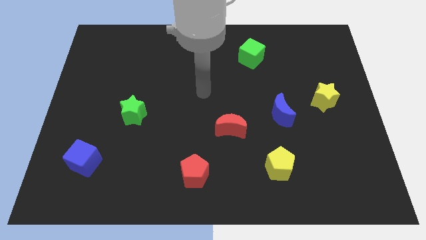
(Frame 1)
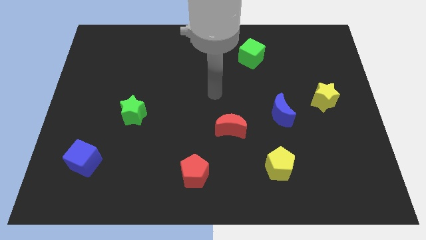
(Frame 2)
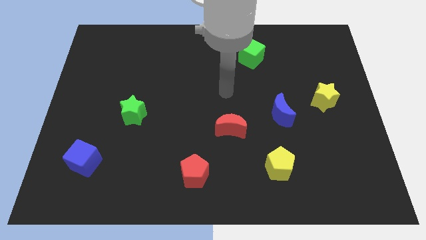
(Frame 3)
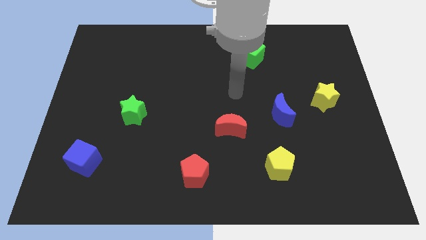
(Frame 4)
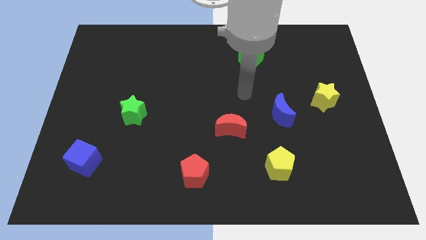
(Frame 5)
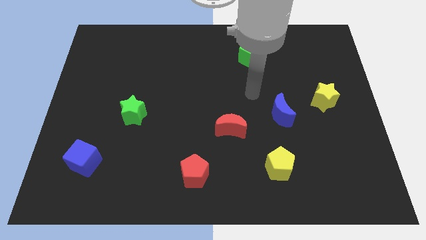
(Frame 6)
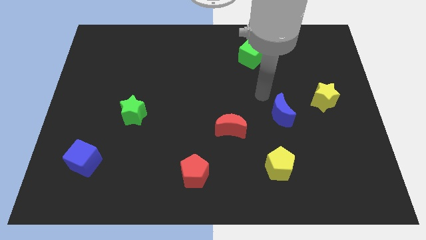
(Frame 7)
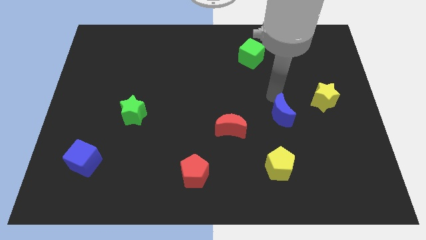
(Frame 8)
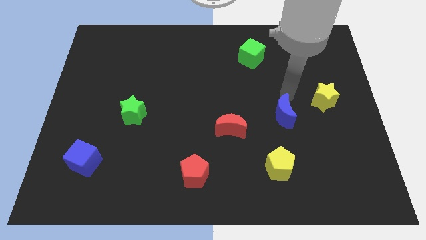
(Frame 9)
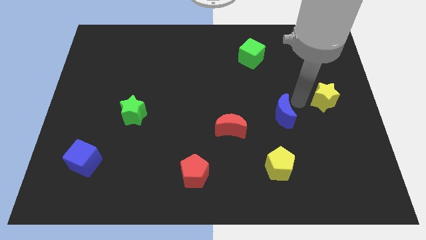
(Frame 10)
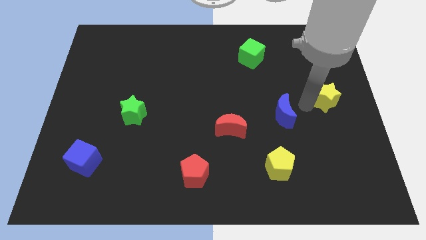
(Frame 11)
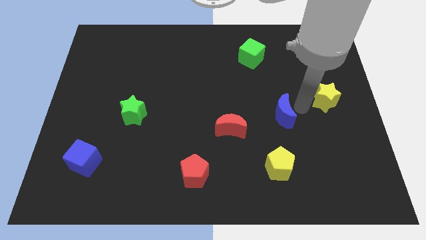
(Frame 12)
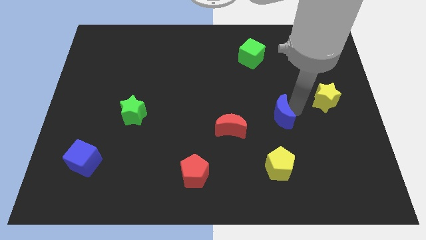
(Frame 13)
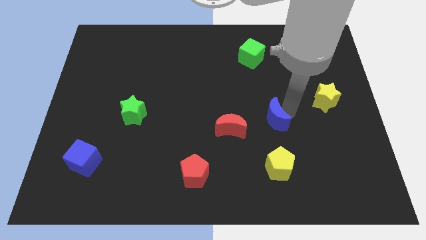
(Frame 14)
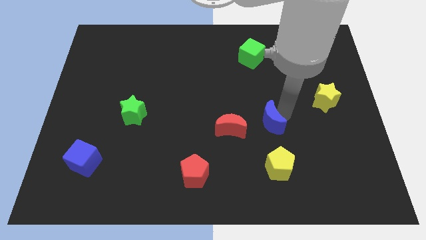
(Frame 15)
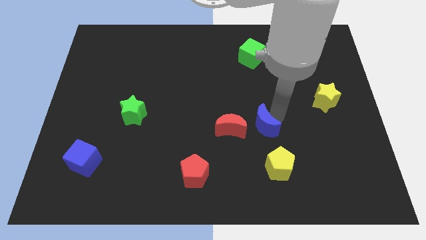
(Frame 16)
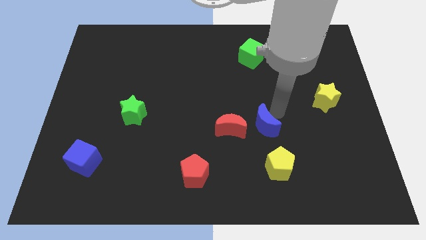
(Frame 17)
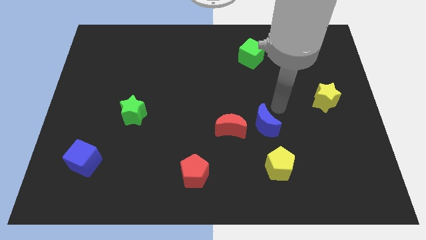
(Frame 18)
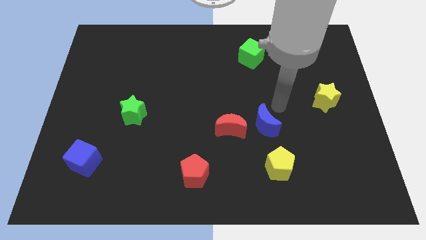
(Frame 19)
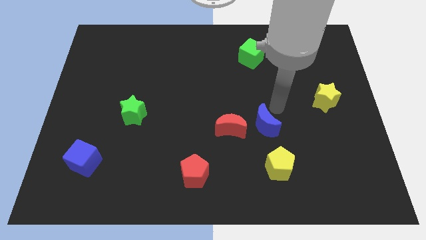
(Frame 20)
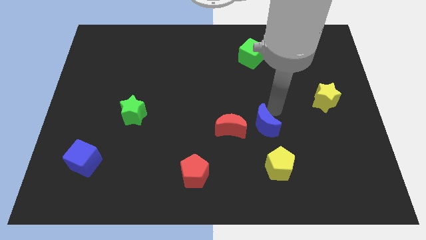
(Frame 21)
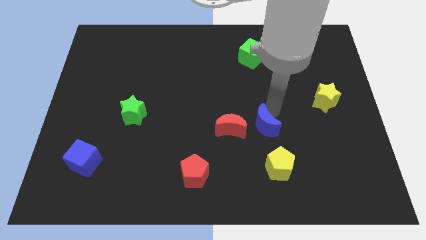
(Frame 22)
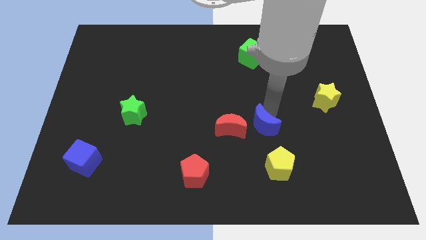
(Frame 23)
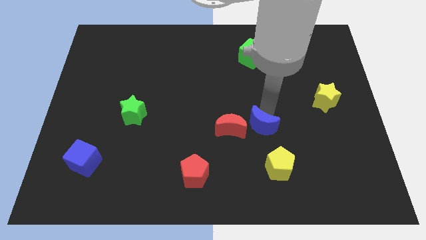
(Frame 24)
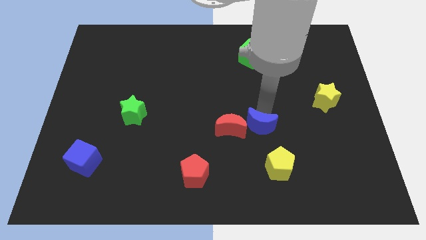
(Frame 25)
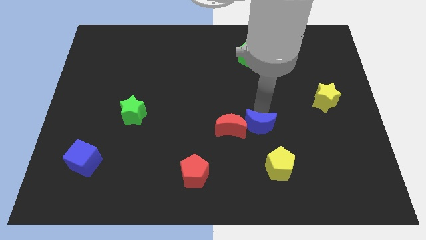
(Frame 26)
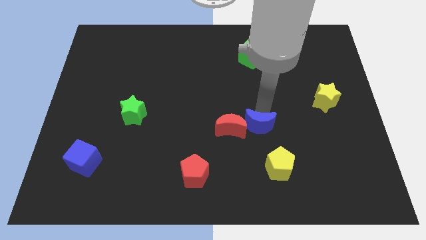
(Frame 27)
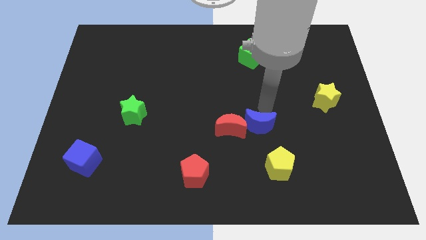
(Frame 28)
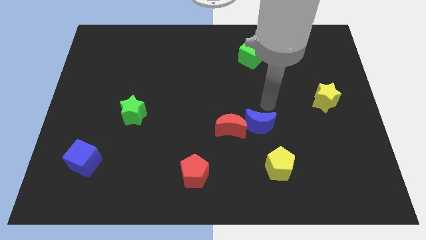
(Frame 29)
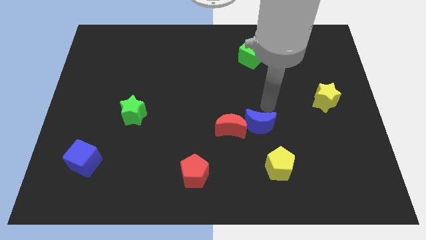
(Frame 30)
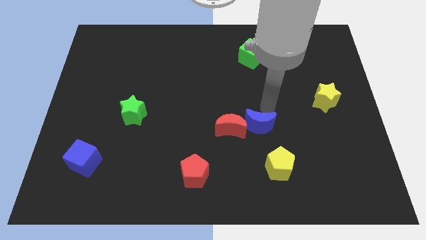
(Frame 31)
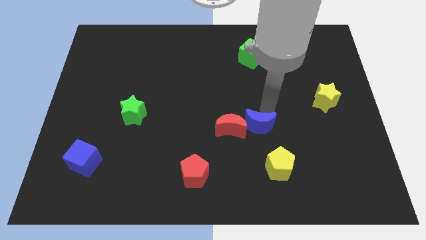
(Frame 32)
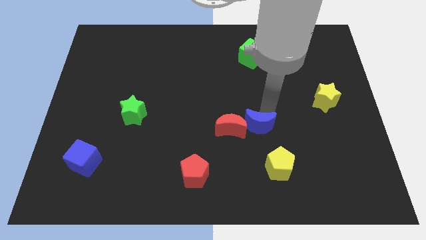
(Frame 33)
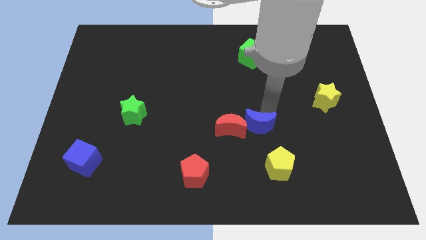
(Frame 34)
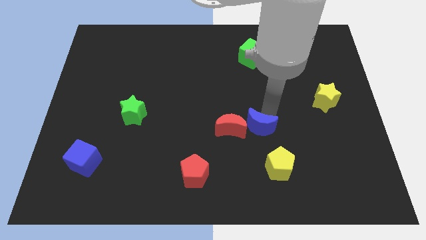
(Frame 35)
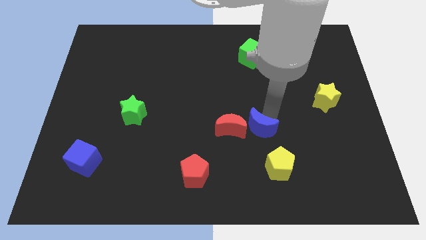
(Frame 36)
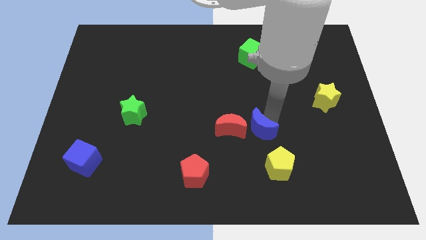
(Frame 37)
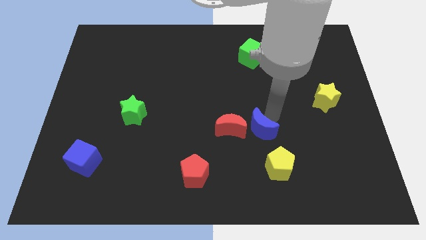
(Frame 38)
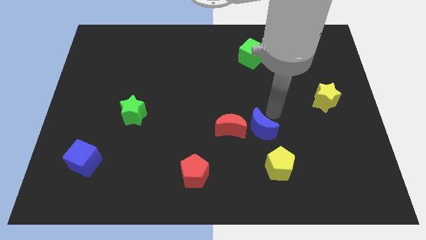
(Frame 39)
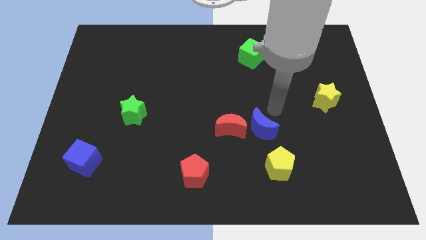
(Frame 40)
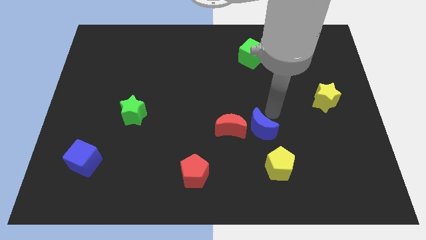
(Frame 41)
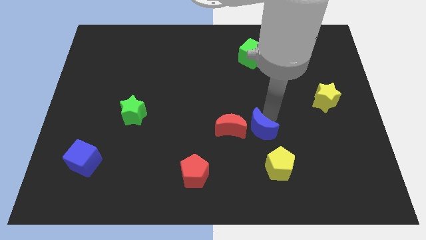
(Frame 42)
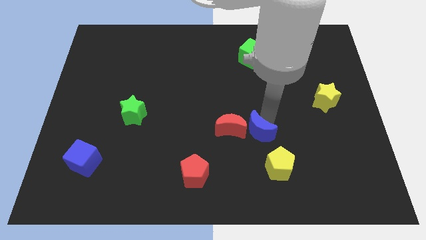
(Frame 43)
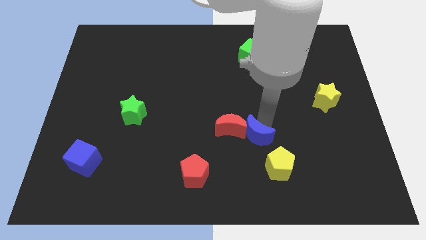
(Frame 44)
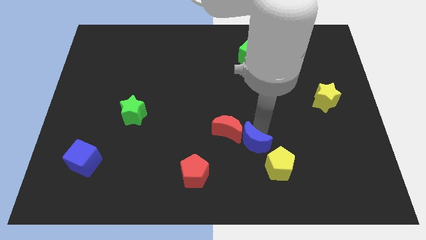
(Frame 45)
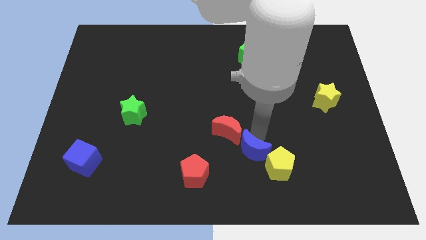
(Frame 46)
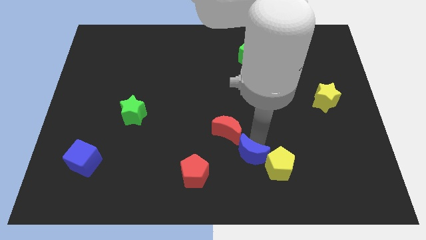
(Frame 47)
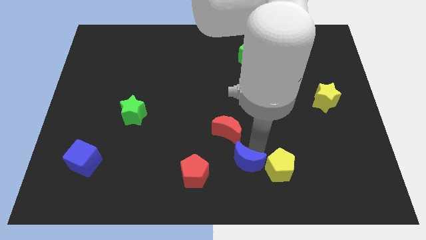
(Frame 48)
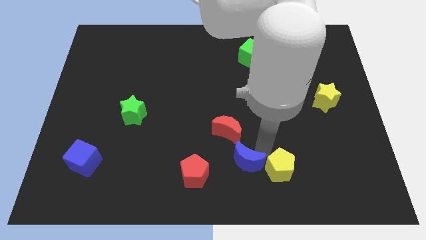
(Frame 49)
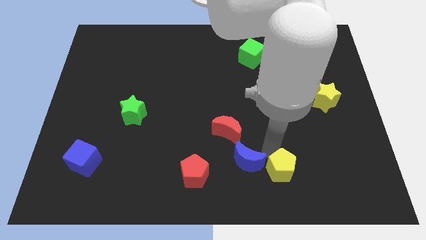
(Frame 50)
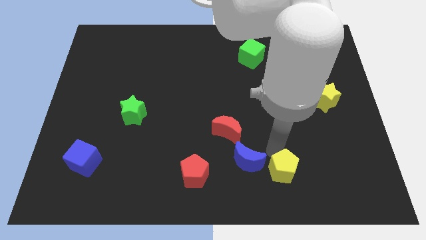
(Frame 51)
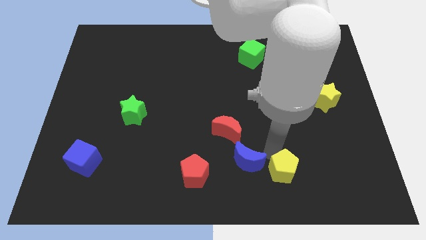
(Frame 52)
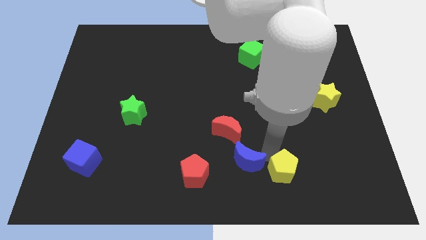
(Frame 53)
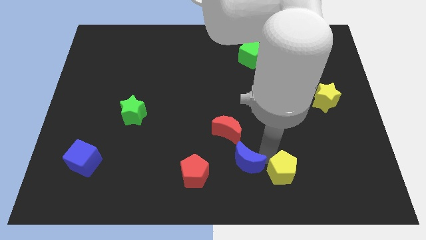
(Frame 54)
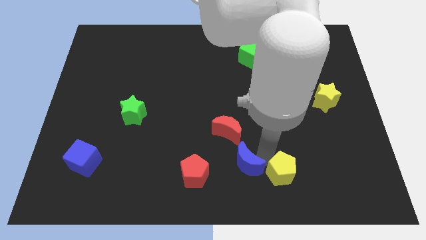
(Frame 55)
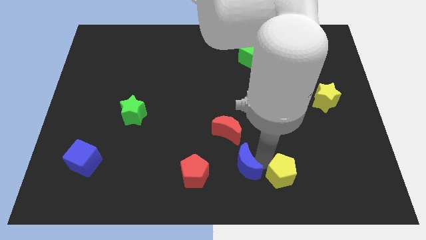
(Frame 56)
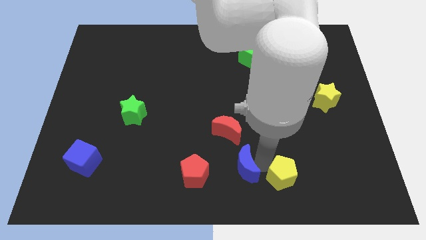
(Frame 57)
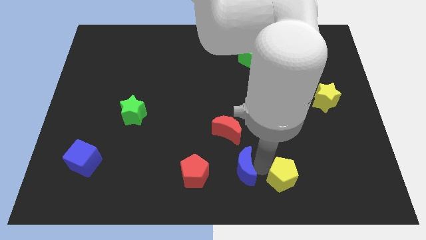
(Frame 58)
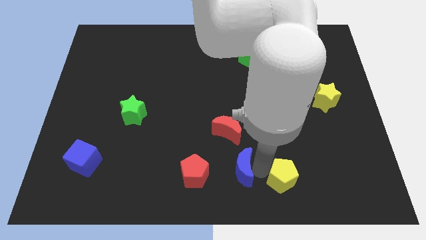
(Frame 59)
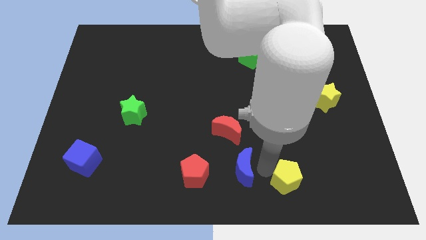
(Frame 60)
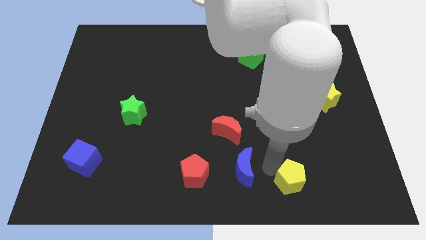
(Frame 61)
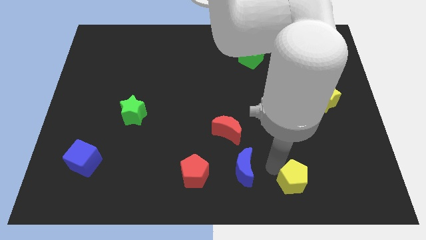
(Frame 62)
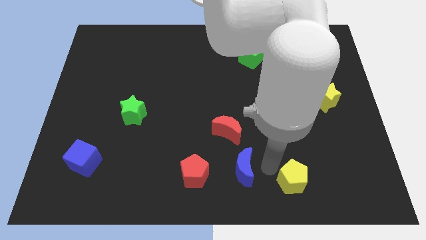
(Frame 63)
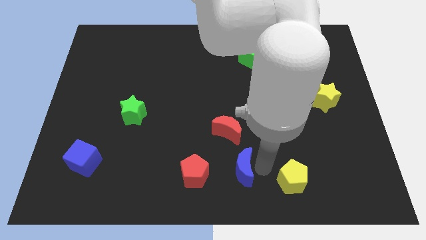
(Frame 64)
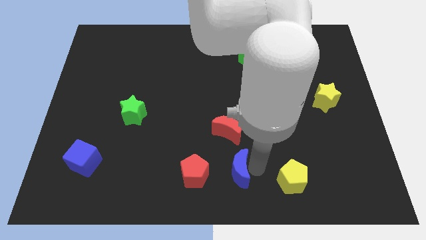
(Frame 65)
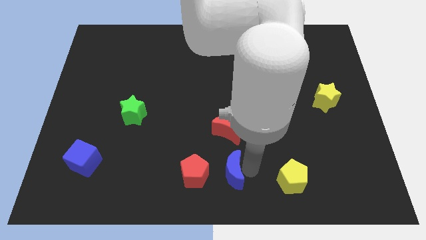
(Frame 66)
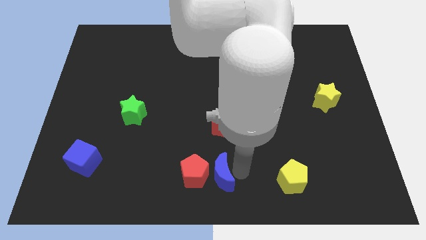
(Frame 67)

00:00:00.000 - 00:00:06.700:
slide the blue moon to the red pentagon

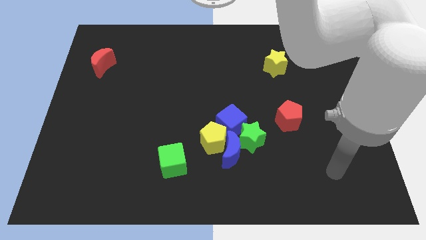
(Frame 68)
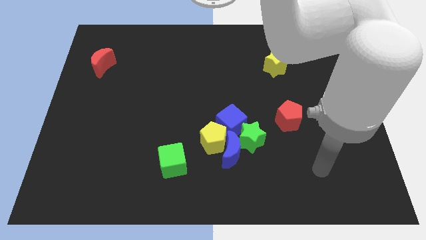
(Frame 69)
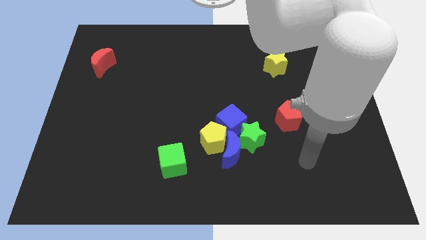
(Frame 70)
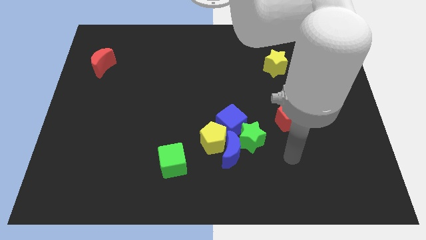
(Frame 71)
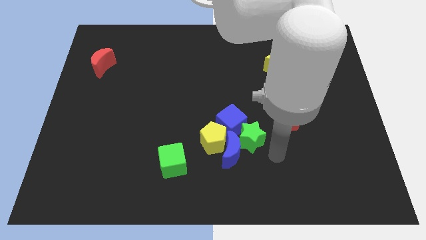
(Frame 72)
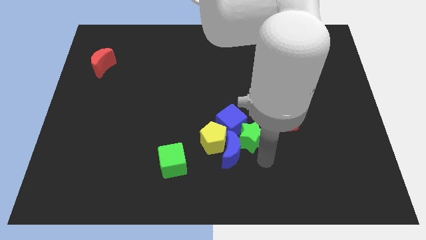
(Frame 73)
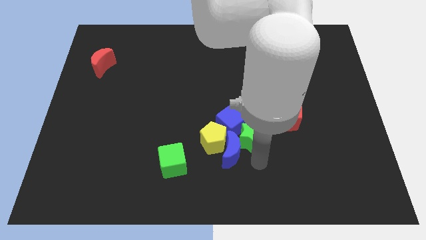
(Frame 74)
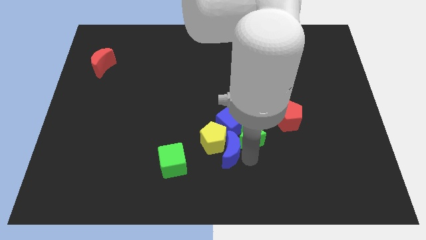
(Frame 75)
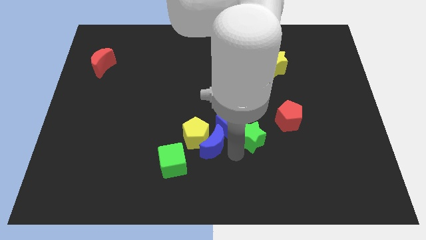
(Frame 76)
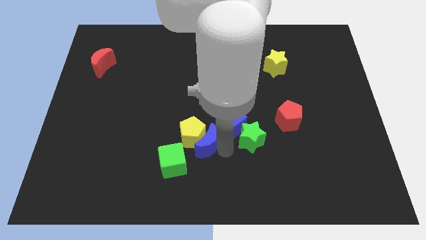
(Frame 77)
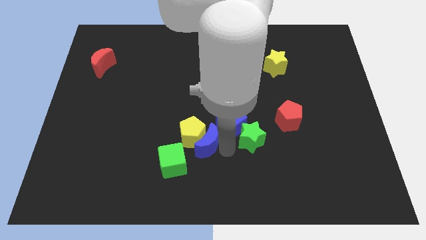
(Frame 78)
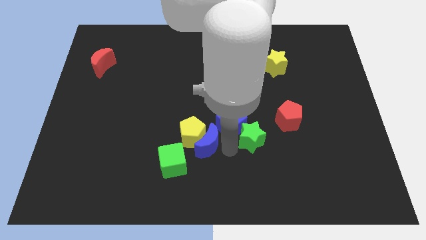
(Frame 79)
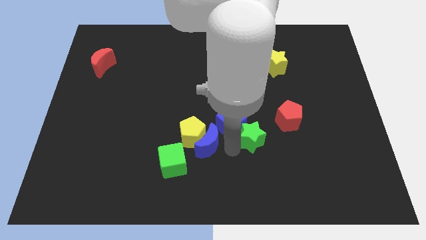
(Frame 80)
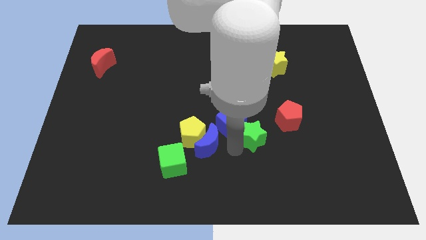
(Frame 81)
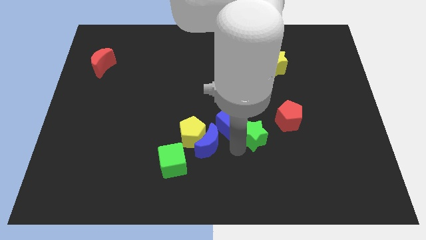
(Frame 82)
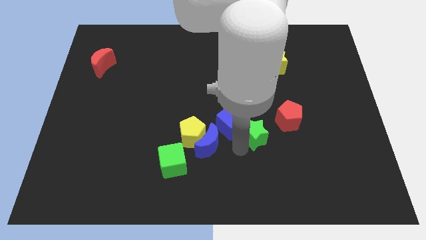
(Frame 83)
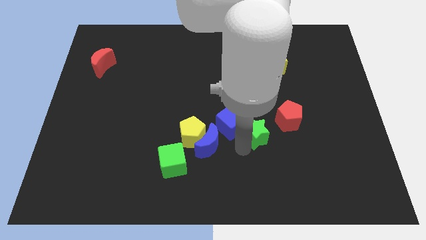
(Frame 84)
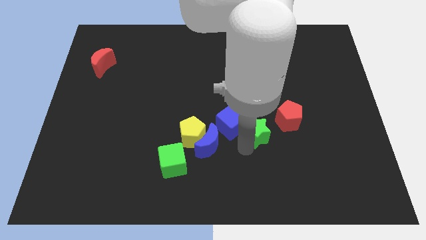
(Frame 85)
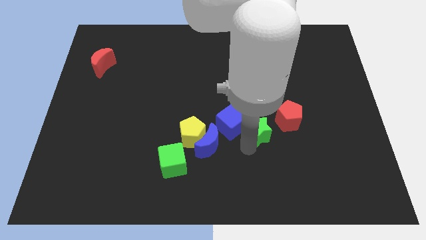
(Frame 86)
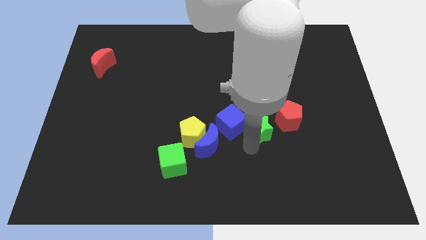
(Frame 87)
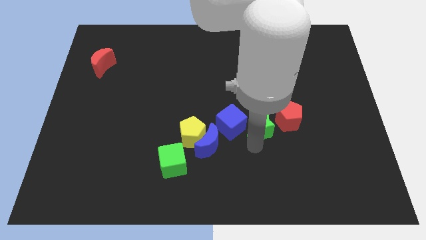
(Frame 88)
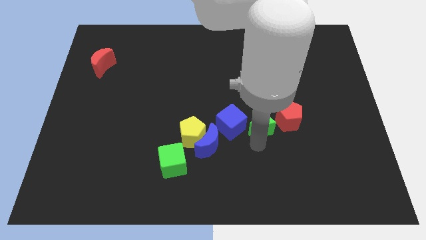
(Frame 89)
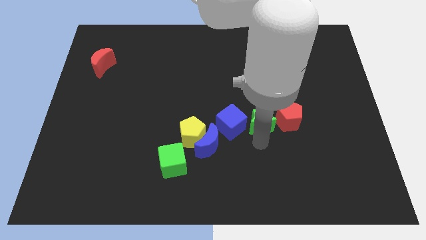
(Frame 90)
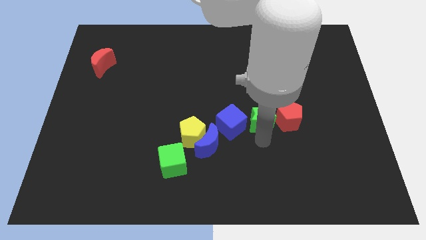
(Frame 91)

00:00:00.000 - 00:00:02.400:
move the green star towards the red pentagon
